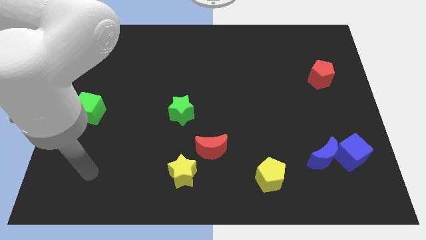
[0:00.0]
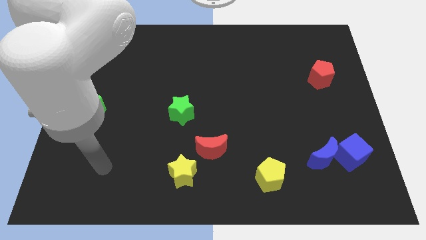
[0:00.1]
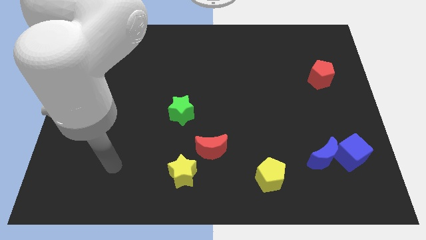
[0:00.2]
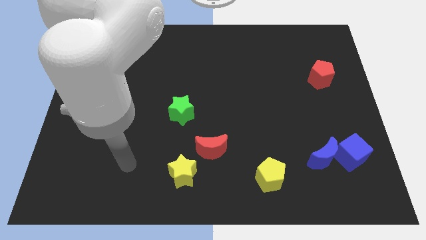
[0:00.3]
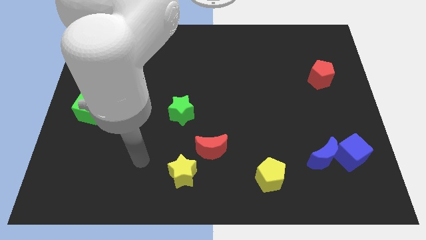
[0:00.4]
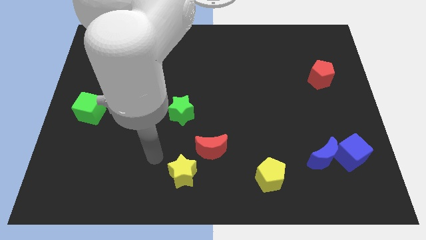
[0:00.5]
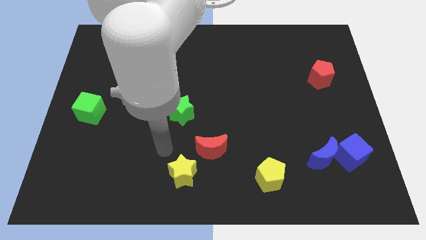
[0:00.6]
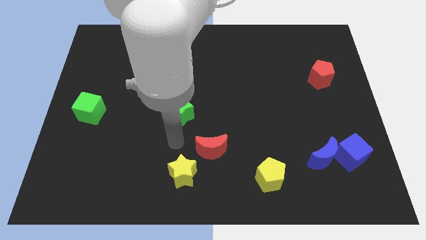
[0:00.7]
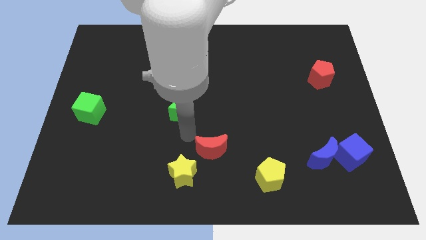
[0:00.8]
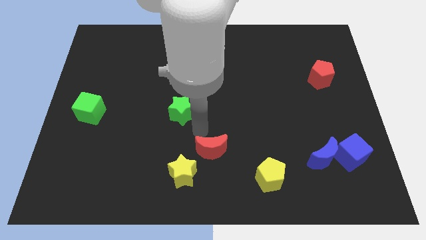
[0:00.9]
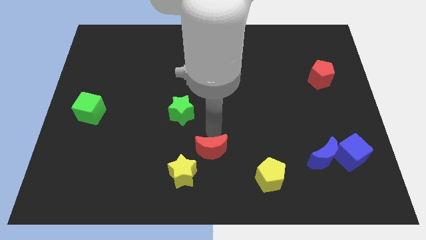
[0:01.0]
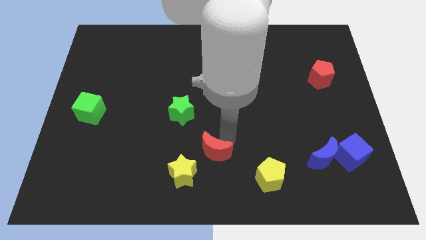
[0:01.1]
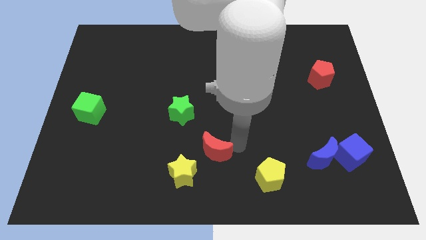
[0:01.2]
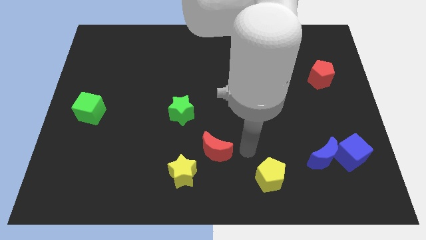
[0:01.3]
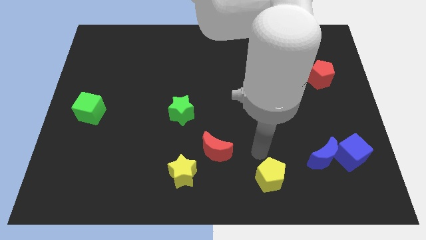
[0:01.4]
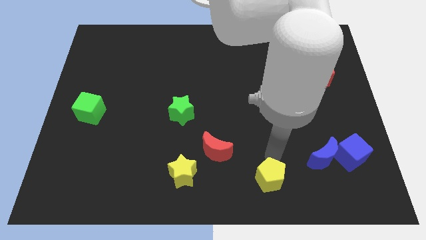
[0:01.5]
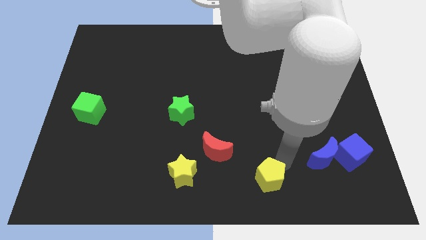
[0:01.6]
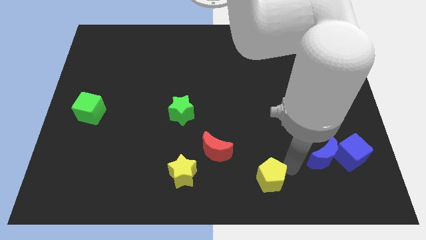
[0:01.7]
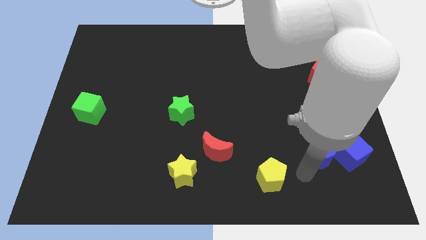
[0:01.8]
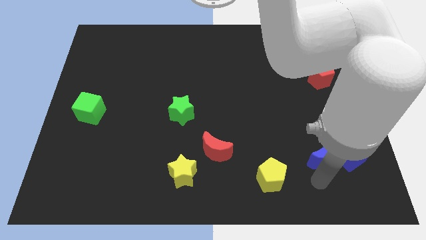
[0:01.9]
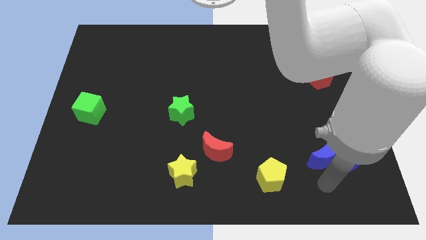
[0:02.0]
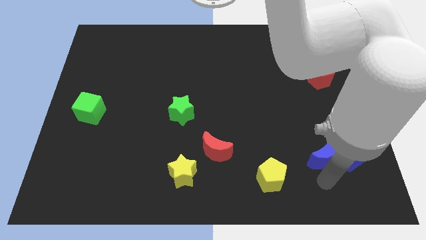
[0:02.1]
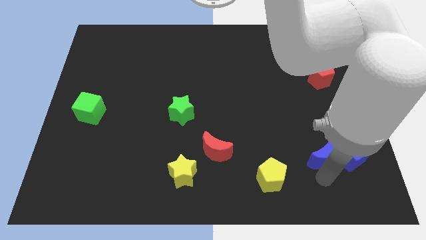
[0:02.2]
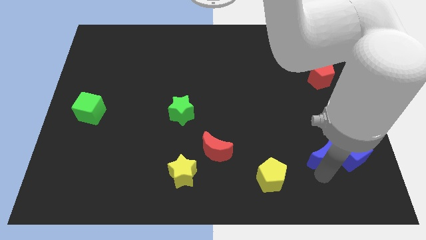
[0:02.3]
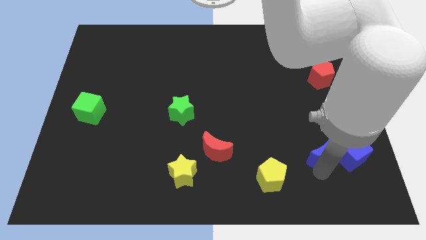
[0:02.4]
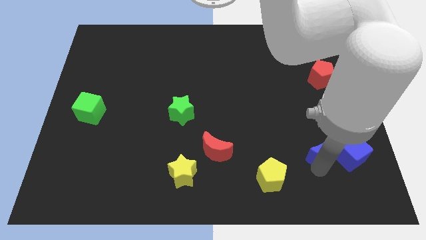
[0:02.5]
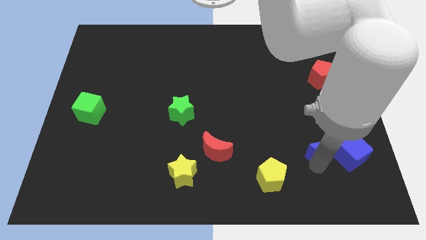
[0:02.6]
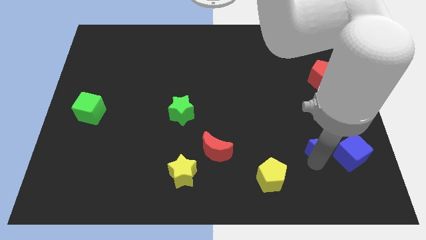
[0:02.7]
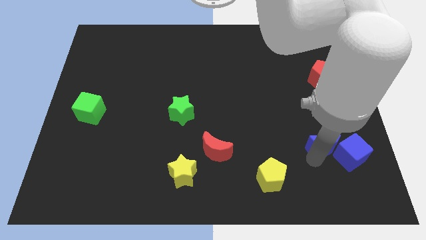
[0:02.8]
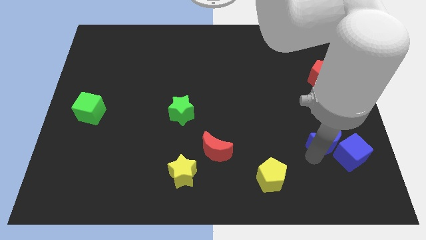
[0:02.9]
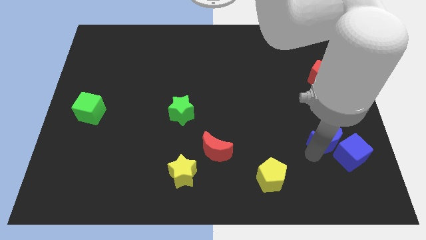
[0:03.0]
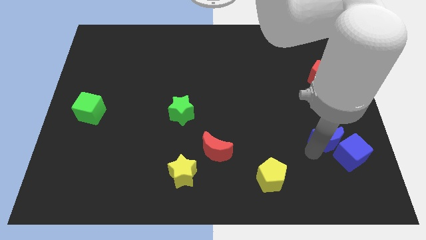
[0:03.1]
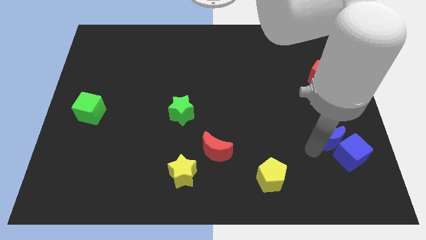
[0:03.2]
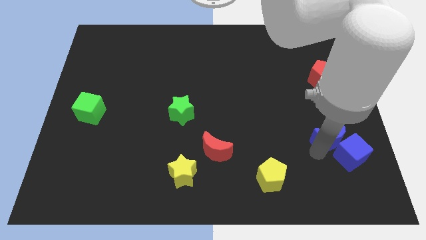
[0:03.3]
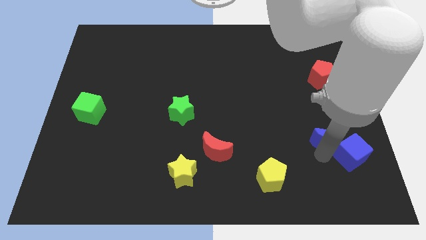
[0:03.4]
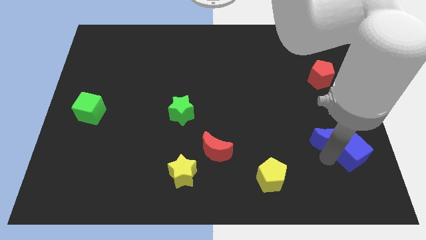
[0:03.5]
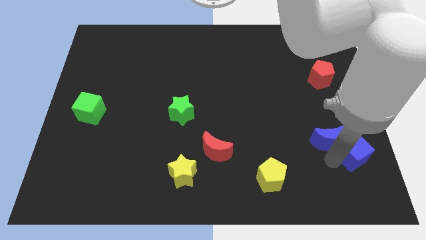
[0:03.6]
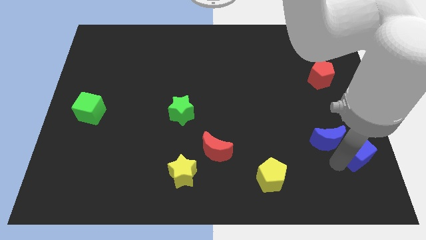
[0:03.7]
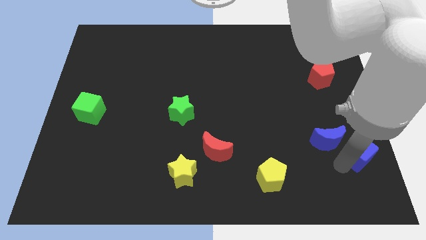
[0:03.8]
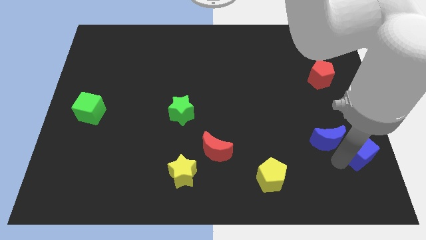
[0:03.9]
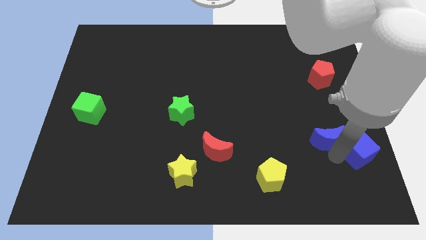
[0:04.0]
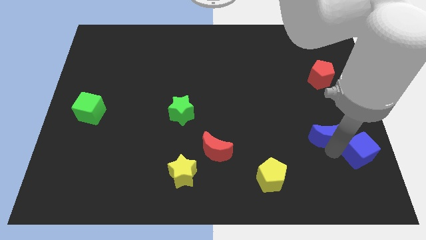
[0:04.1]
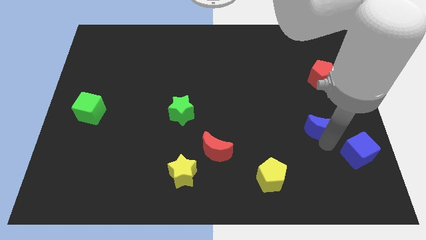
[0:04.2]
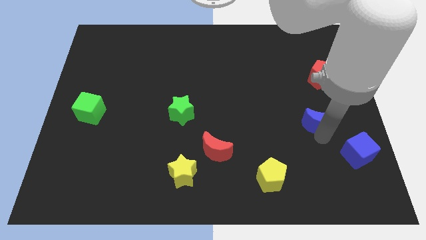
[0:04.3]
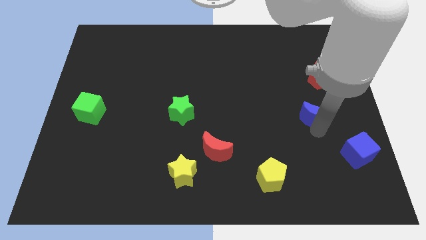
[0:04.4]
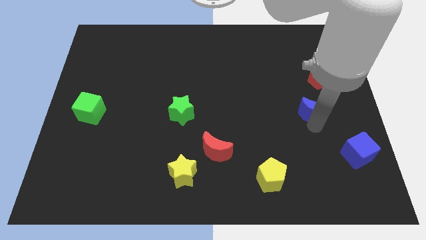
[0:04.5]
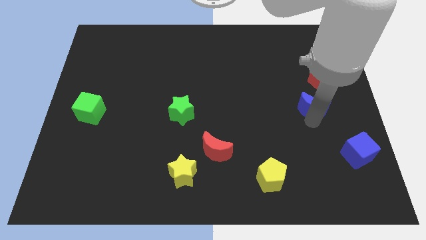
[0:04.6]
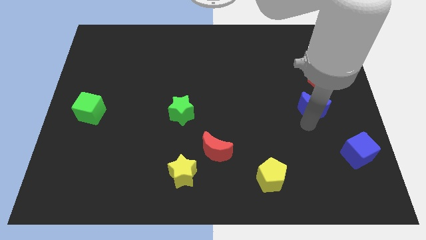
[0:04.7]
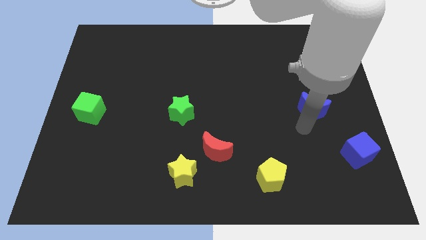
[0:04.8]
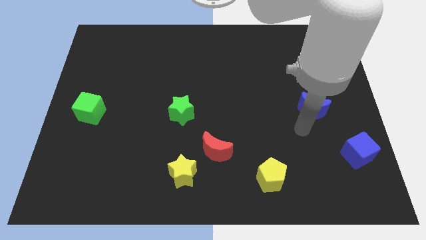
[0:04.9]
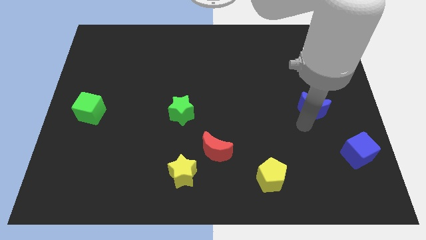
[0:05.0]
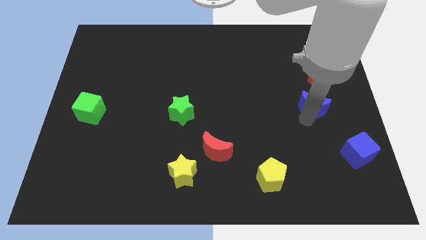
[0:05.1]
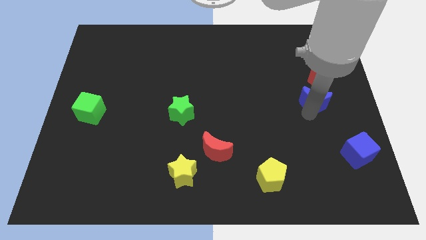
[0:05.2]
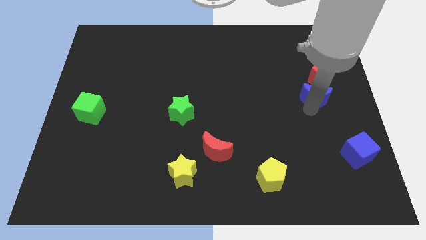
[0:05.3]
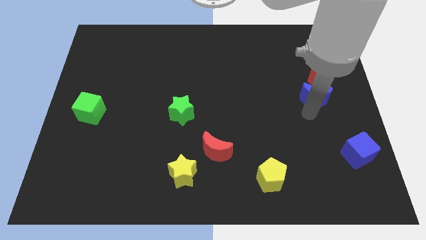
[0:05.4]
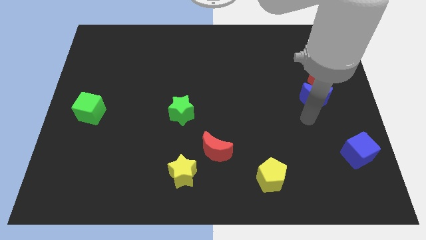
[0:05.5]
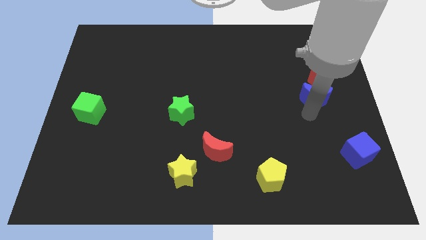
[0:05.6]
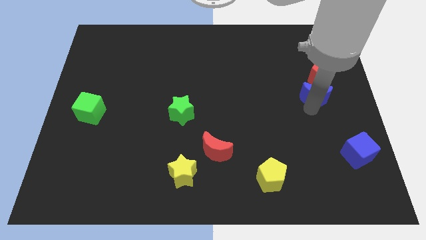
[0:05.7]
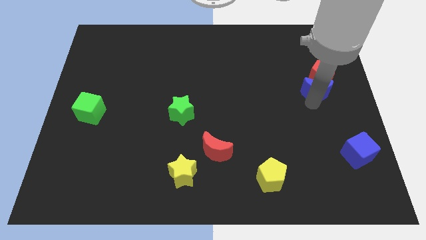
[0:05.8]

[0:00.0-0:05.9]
move the blue moon to the red pentagon

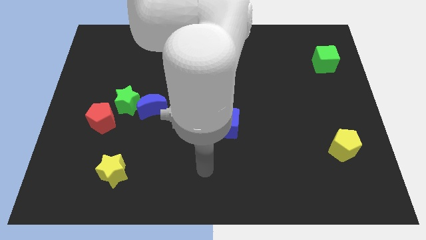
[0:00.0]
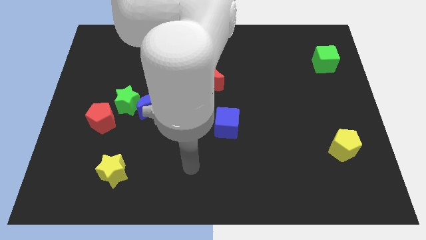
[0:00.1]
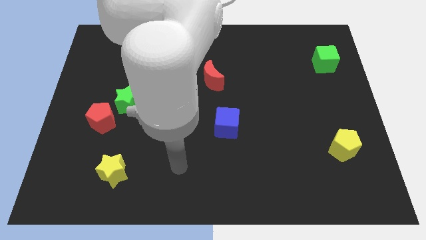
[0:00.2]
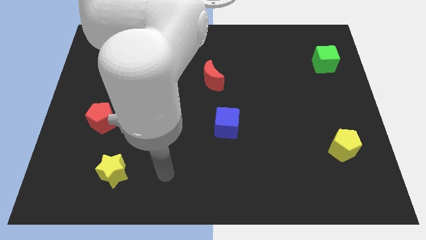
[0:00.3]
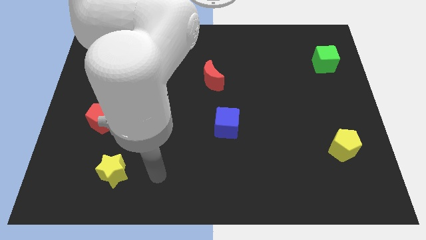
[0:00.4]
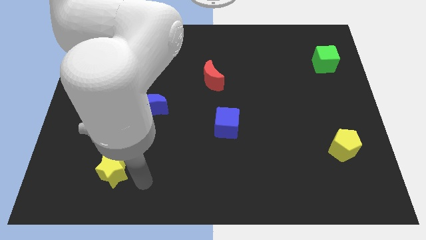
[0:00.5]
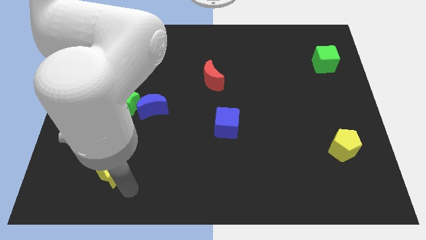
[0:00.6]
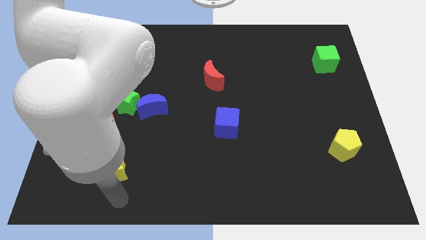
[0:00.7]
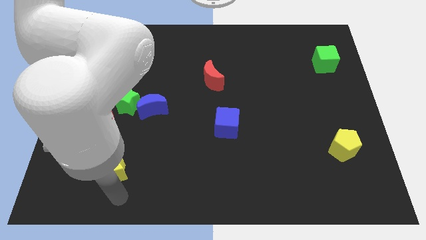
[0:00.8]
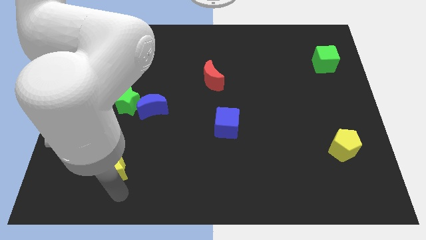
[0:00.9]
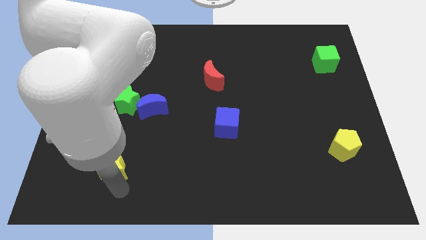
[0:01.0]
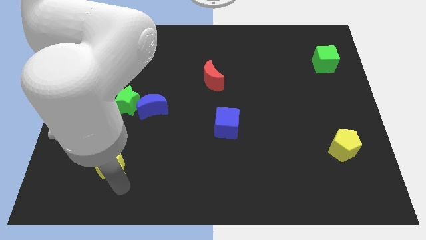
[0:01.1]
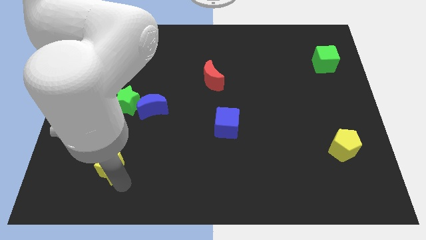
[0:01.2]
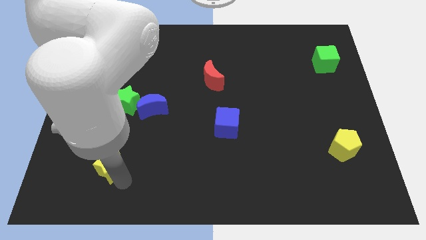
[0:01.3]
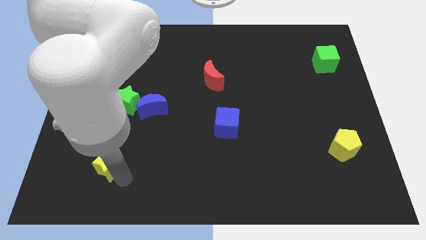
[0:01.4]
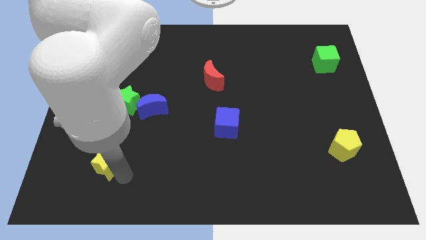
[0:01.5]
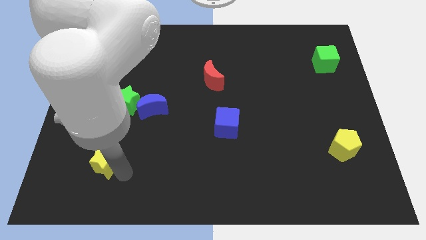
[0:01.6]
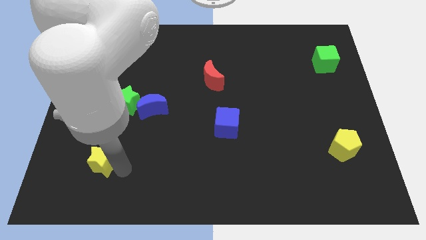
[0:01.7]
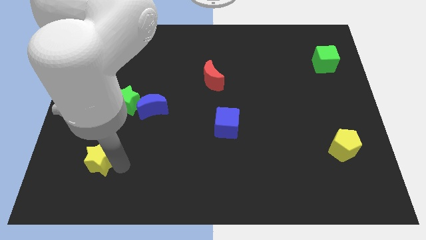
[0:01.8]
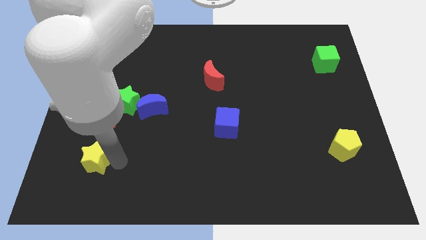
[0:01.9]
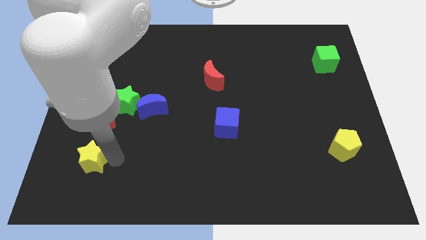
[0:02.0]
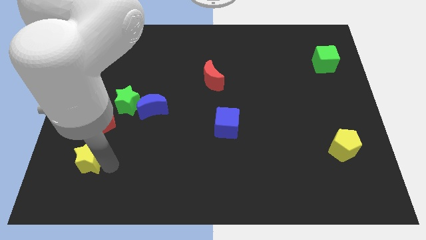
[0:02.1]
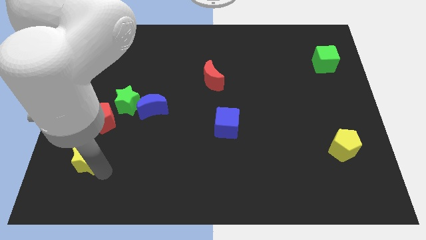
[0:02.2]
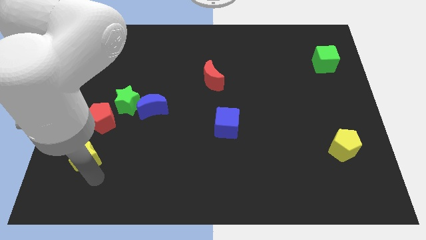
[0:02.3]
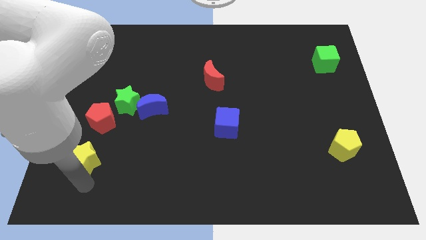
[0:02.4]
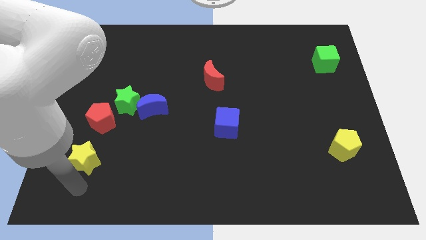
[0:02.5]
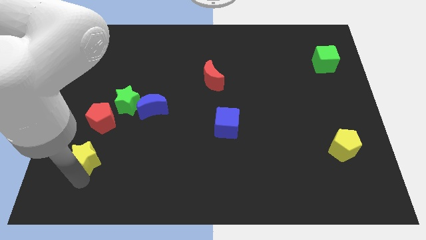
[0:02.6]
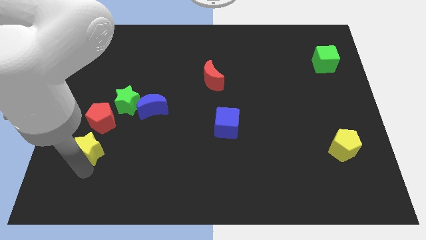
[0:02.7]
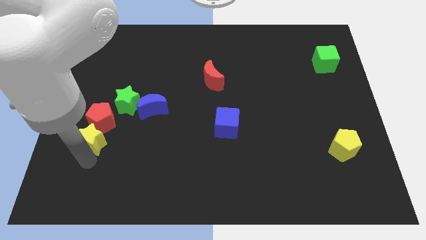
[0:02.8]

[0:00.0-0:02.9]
put the yellow star next to the red pentagon
